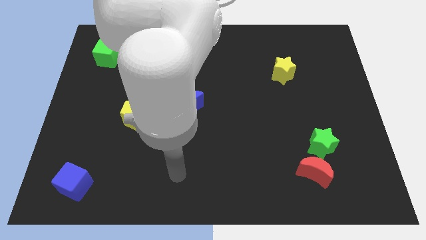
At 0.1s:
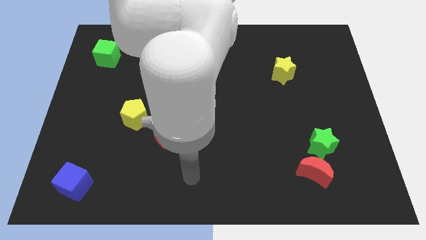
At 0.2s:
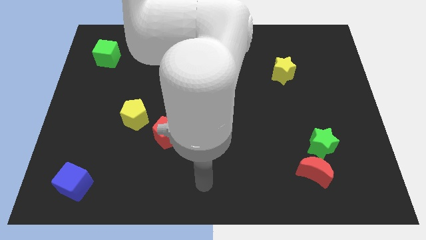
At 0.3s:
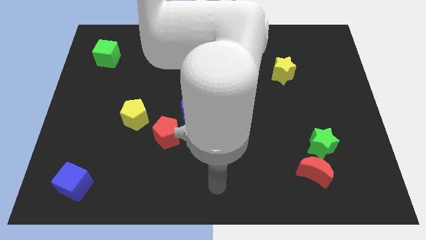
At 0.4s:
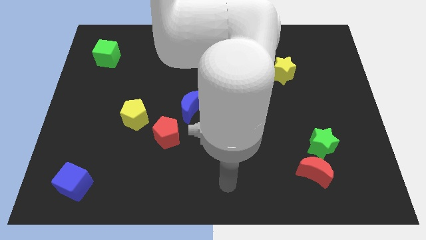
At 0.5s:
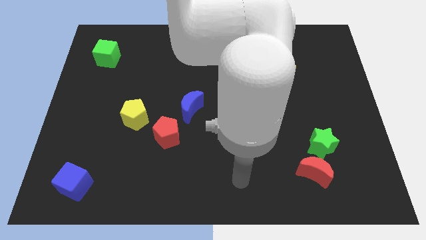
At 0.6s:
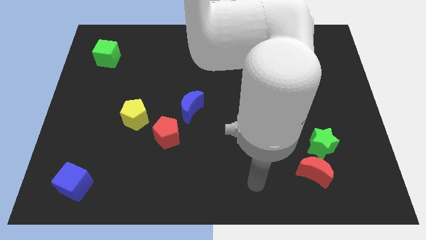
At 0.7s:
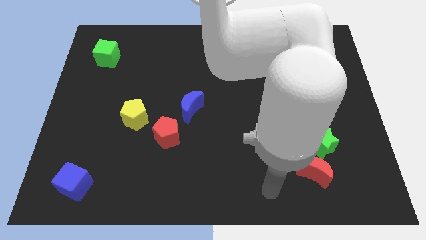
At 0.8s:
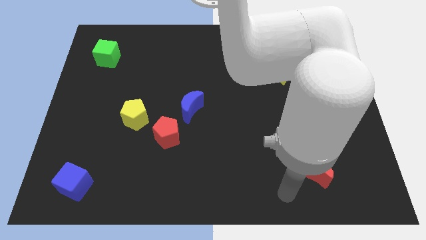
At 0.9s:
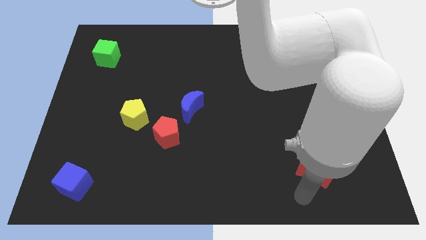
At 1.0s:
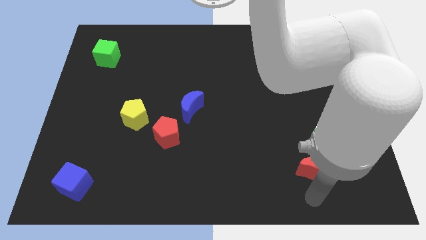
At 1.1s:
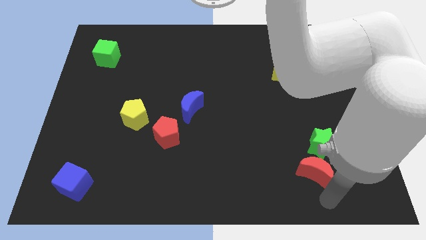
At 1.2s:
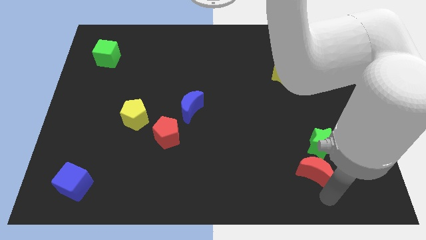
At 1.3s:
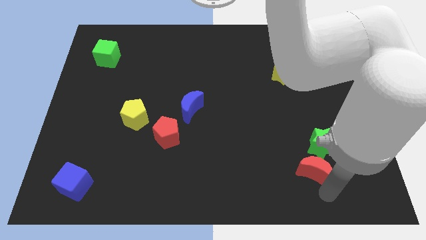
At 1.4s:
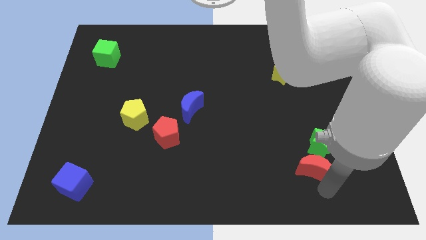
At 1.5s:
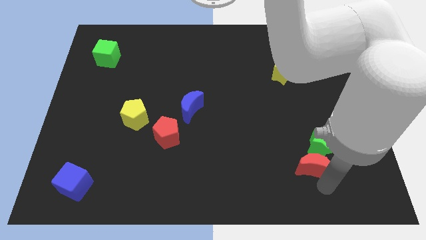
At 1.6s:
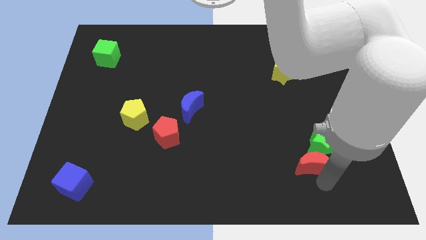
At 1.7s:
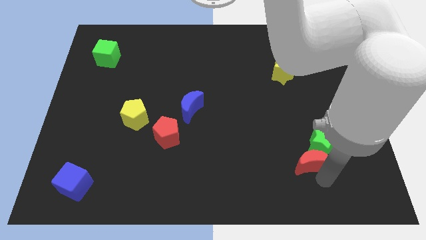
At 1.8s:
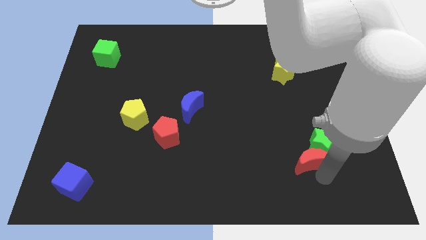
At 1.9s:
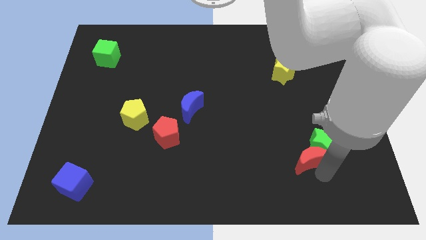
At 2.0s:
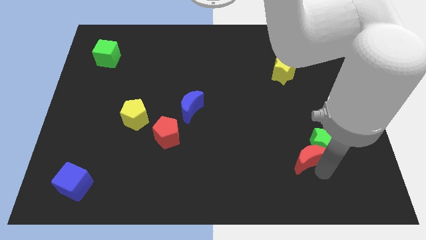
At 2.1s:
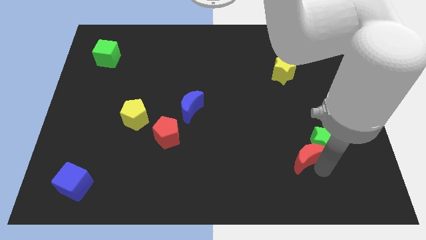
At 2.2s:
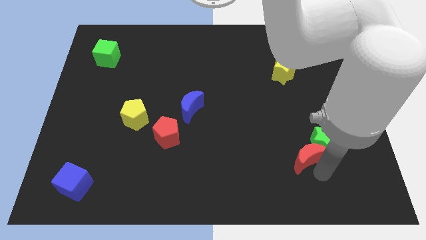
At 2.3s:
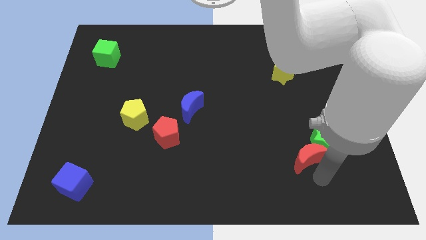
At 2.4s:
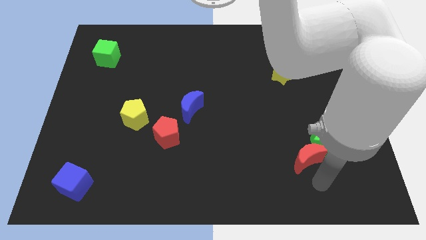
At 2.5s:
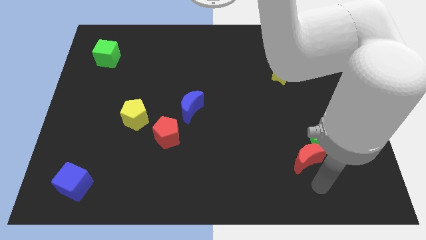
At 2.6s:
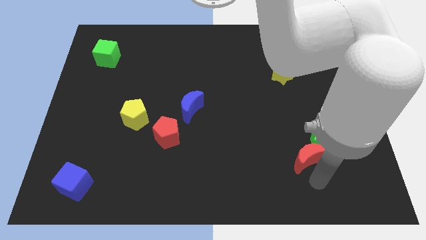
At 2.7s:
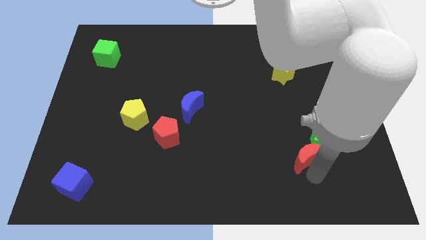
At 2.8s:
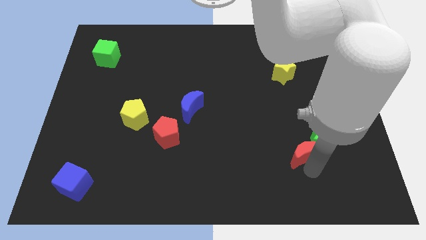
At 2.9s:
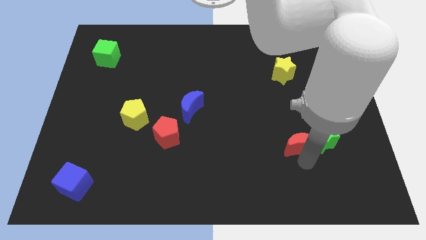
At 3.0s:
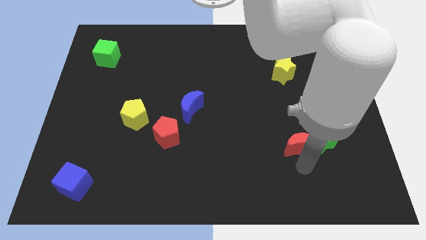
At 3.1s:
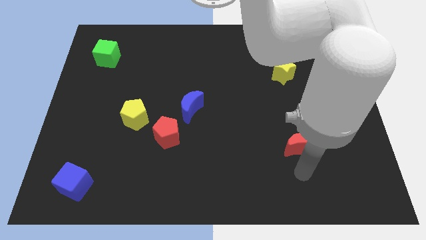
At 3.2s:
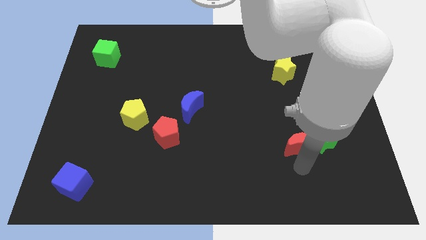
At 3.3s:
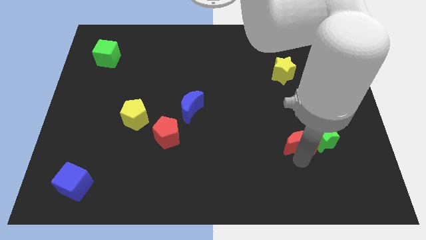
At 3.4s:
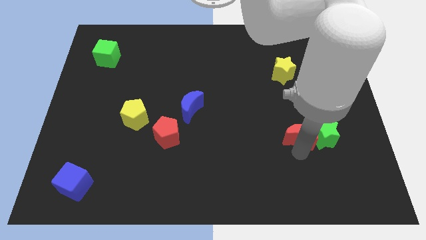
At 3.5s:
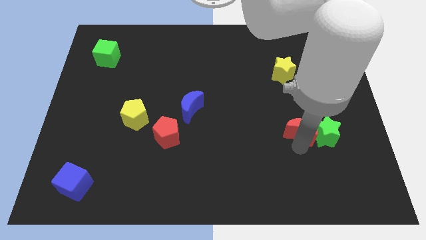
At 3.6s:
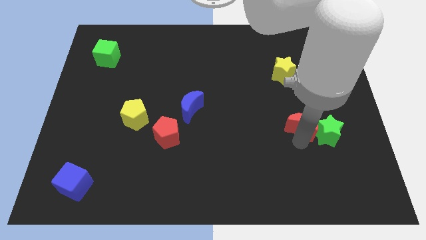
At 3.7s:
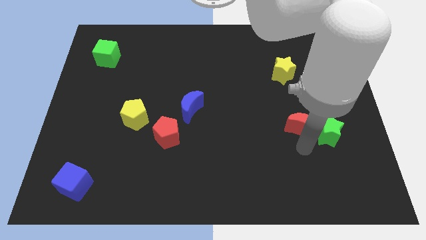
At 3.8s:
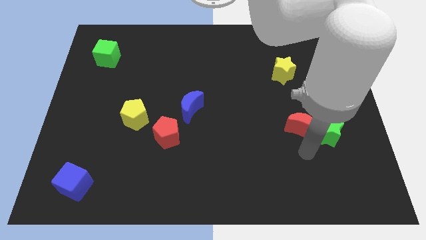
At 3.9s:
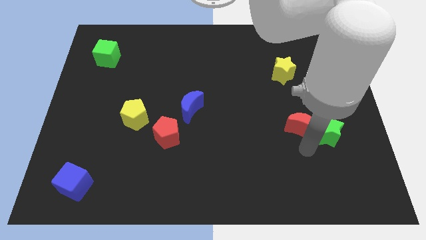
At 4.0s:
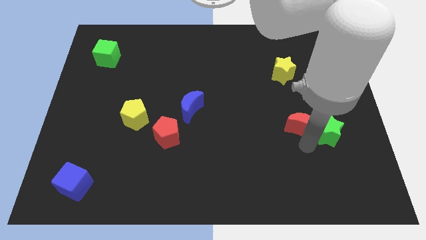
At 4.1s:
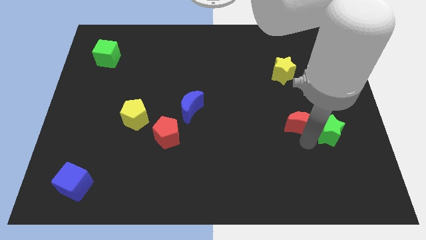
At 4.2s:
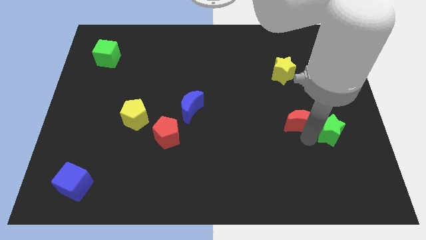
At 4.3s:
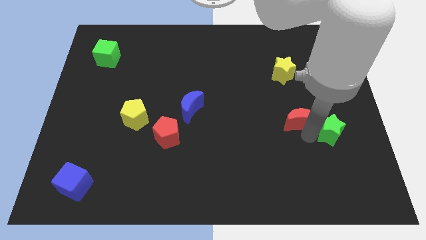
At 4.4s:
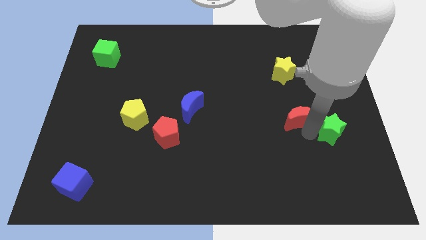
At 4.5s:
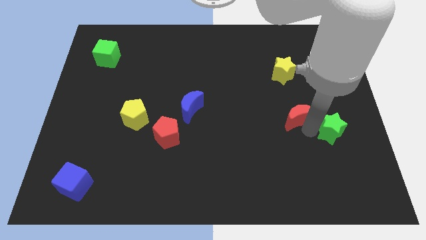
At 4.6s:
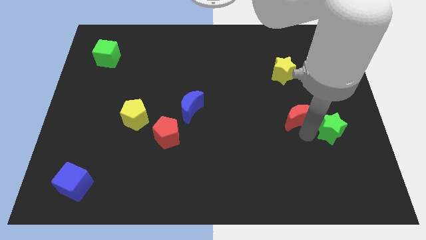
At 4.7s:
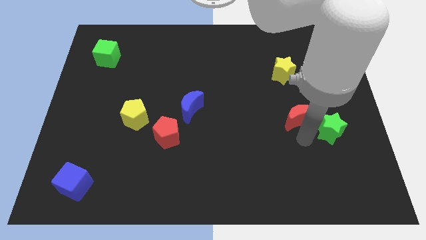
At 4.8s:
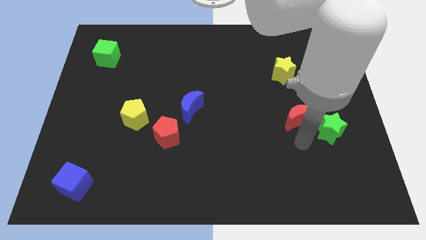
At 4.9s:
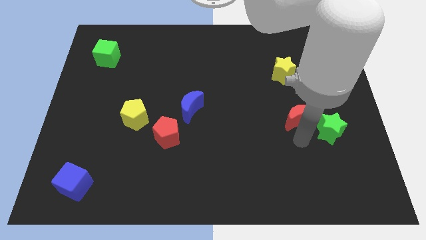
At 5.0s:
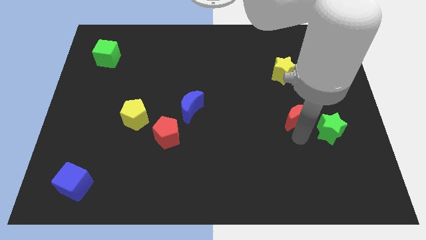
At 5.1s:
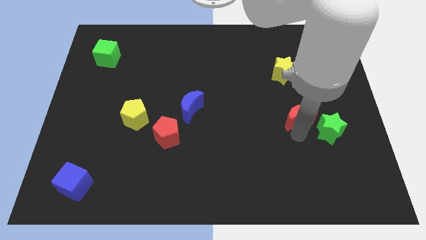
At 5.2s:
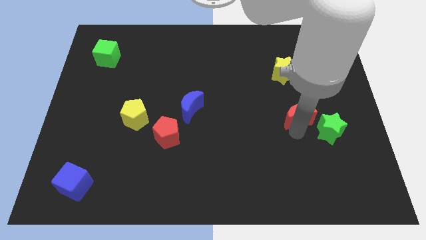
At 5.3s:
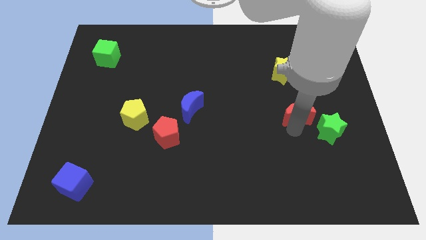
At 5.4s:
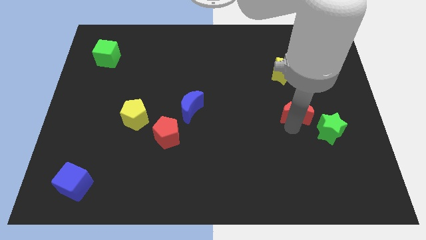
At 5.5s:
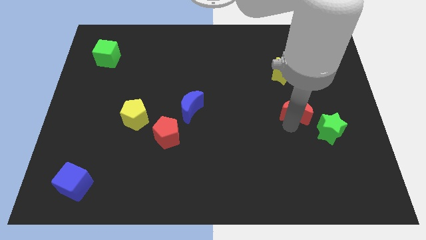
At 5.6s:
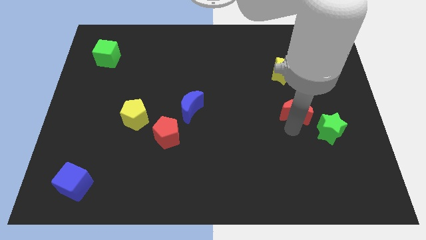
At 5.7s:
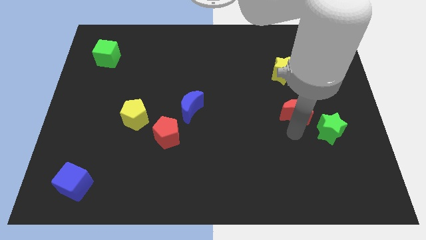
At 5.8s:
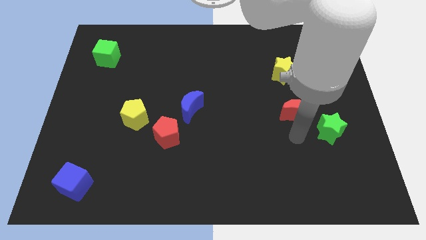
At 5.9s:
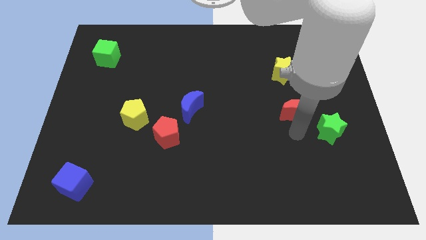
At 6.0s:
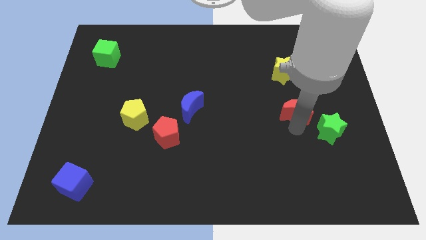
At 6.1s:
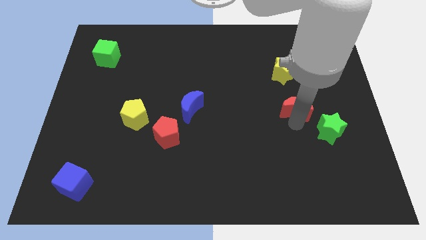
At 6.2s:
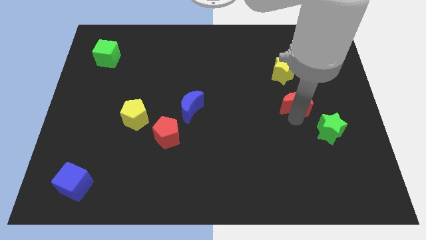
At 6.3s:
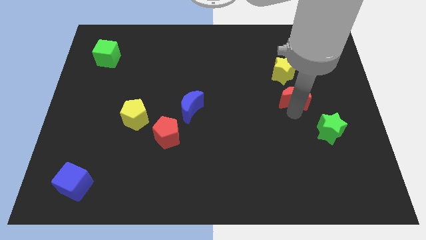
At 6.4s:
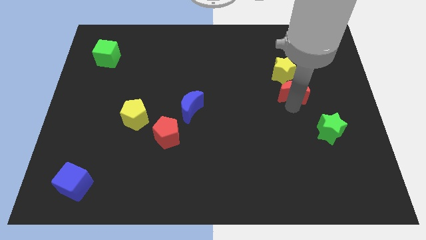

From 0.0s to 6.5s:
push the red moon up

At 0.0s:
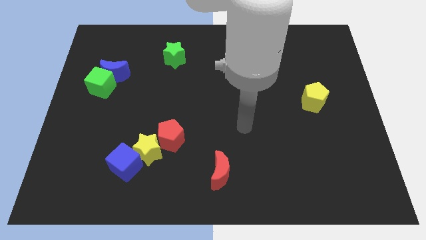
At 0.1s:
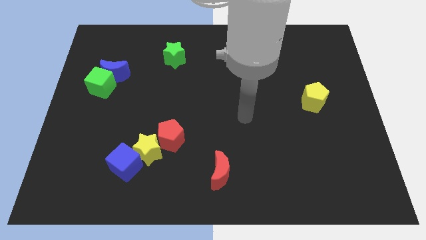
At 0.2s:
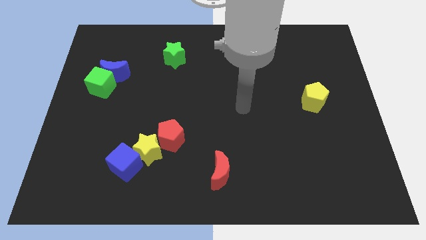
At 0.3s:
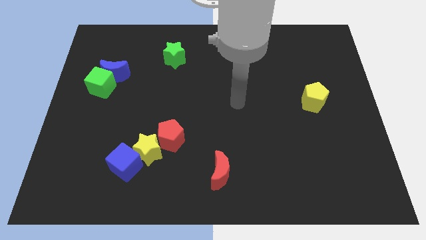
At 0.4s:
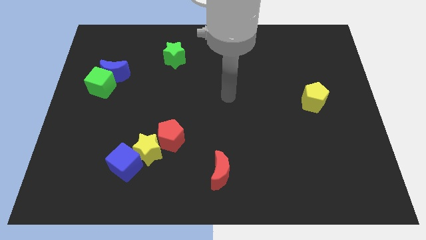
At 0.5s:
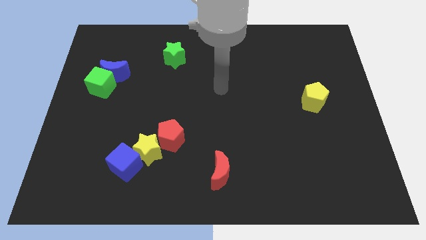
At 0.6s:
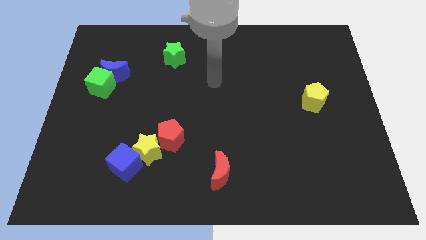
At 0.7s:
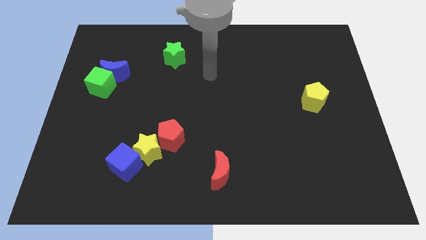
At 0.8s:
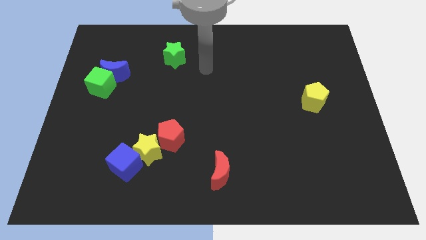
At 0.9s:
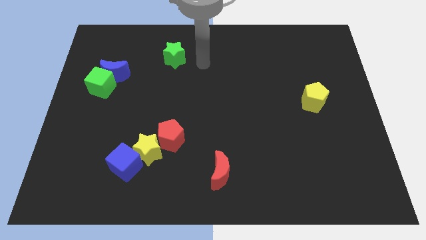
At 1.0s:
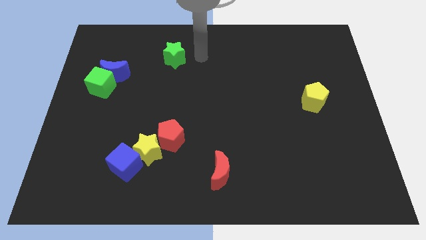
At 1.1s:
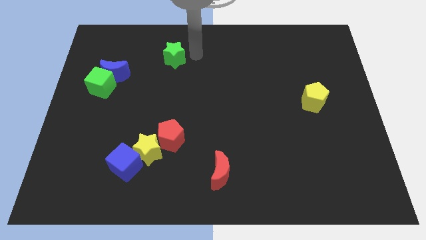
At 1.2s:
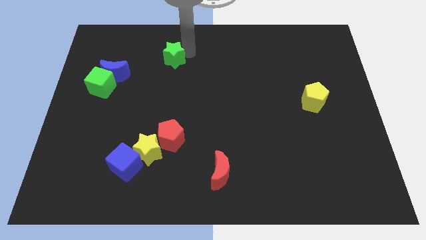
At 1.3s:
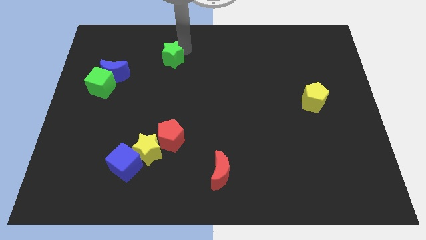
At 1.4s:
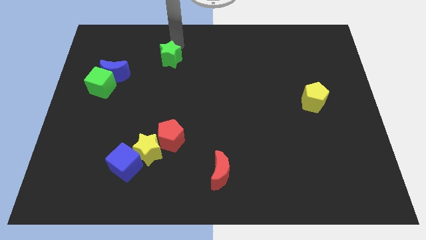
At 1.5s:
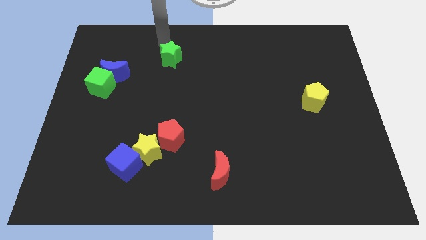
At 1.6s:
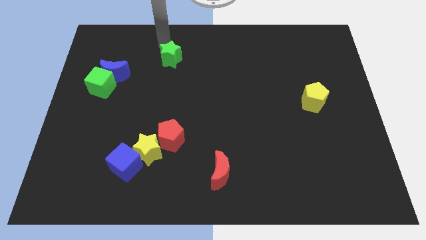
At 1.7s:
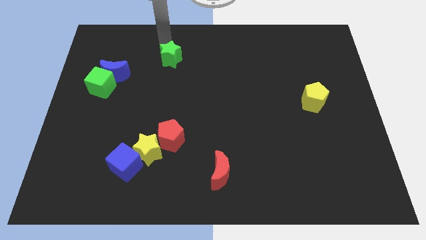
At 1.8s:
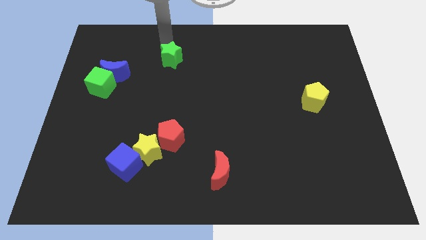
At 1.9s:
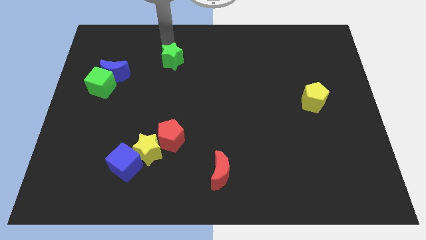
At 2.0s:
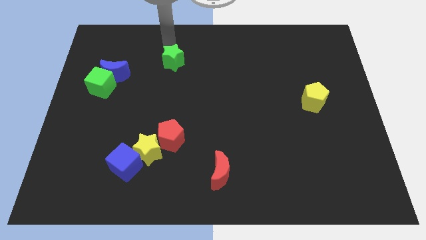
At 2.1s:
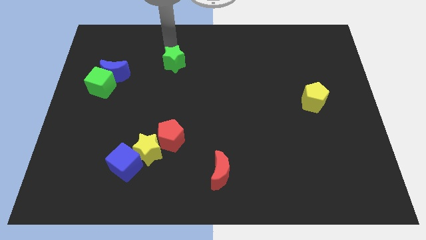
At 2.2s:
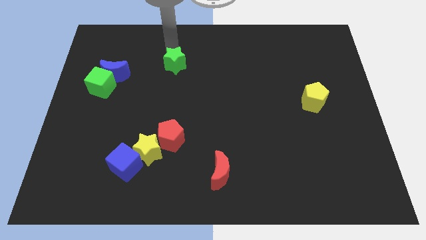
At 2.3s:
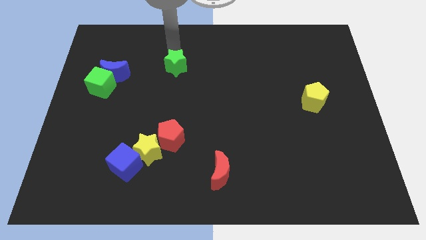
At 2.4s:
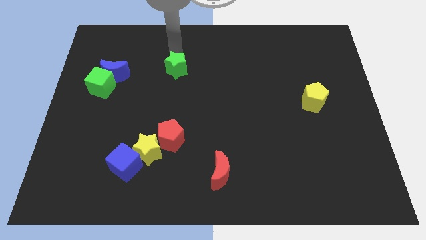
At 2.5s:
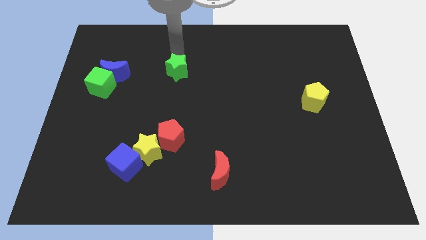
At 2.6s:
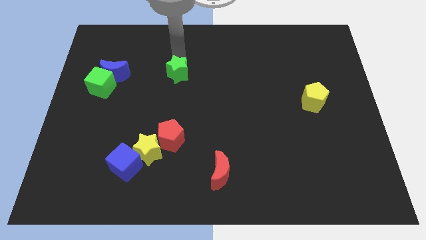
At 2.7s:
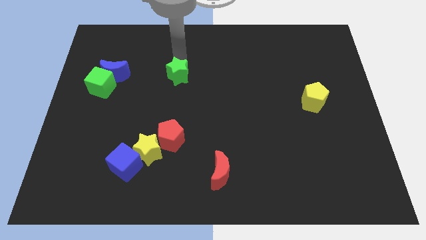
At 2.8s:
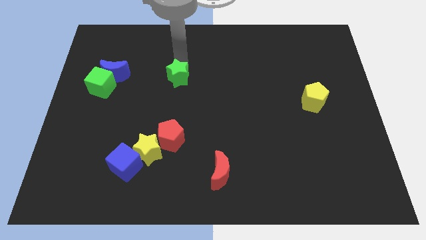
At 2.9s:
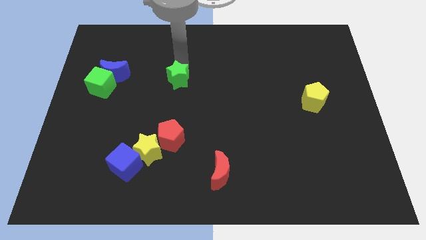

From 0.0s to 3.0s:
move the green star a bit downwards
